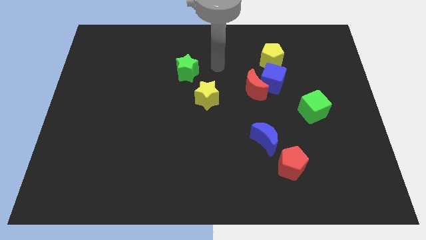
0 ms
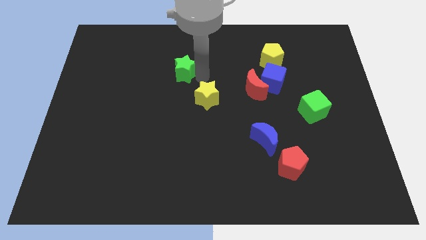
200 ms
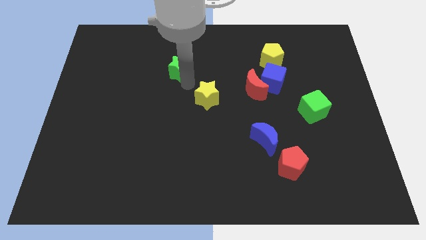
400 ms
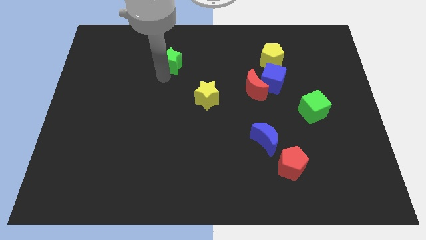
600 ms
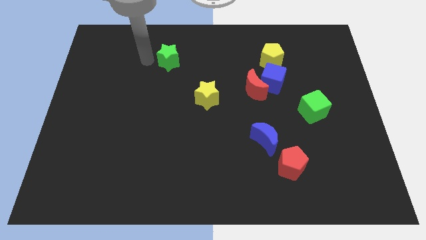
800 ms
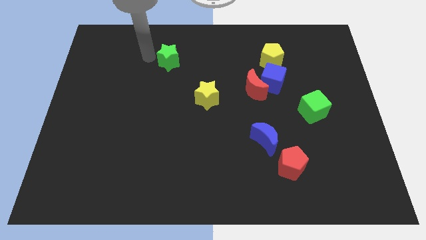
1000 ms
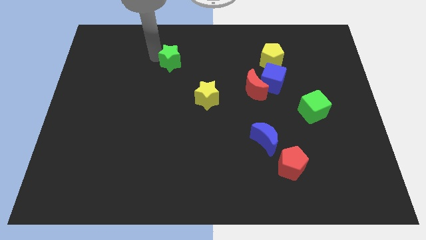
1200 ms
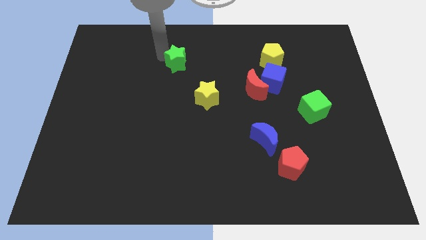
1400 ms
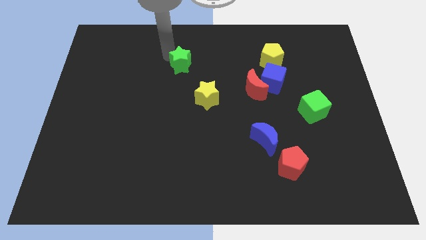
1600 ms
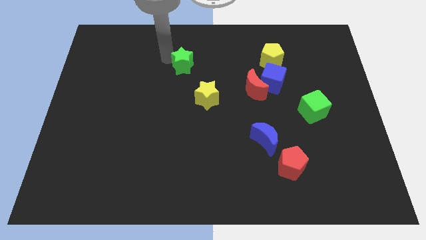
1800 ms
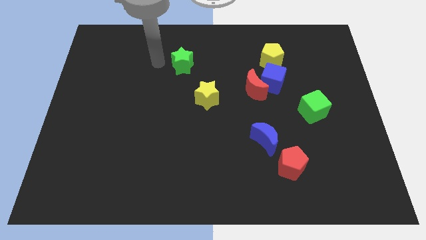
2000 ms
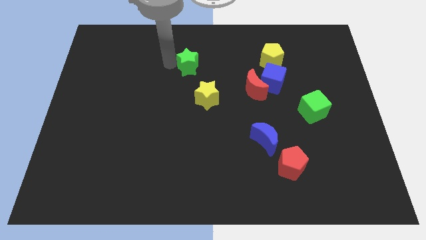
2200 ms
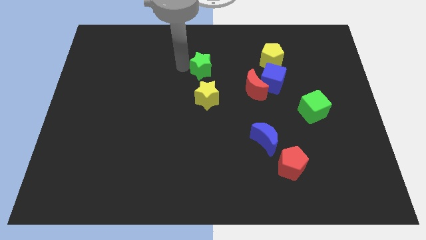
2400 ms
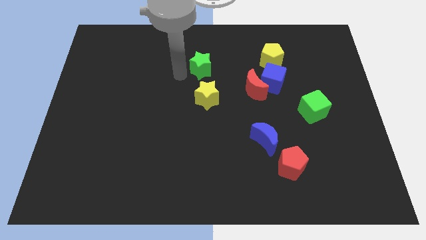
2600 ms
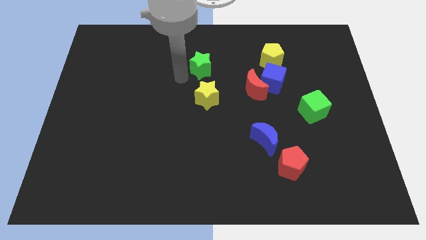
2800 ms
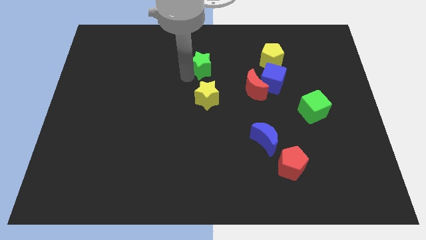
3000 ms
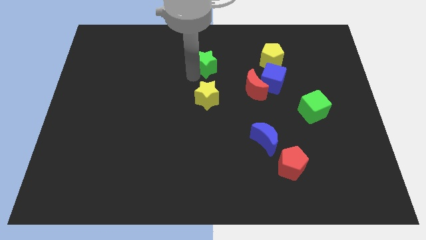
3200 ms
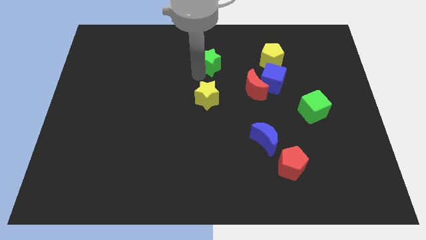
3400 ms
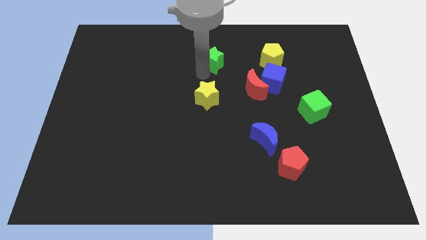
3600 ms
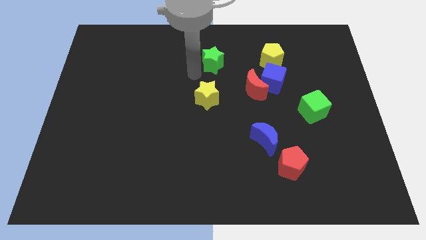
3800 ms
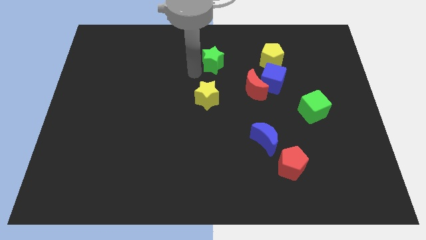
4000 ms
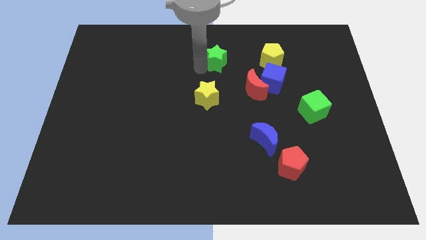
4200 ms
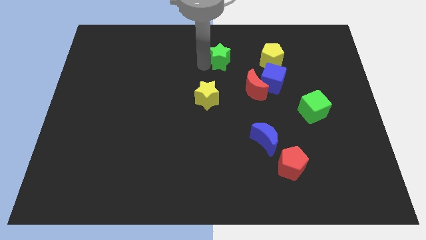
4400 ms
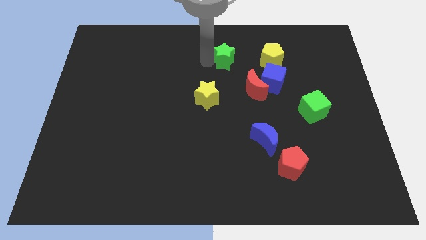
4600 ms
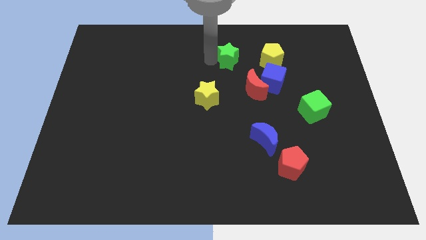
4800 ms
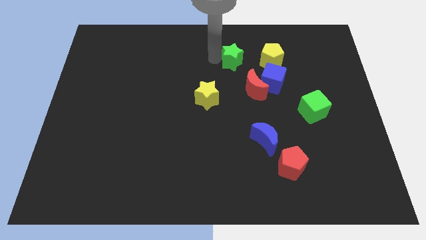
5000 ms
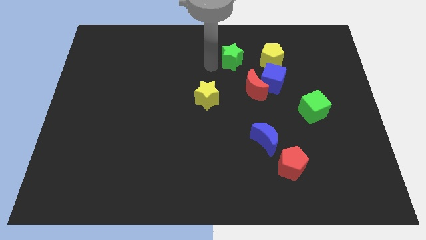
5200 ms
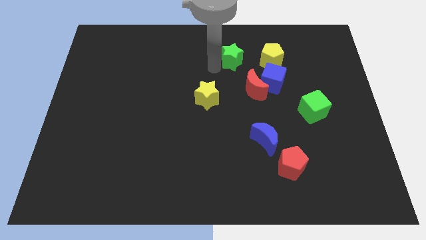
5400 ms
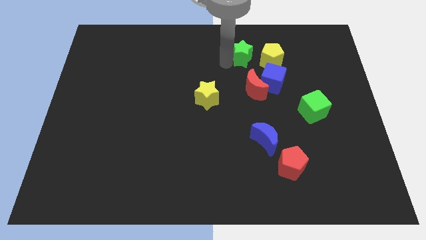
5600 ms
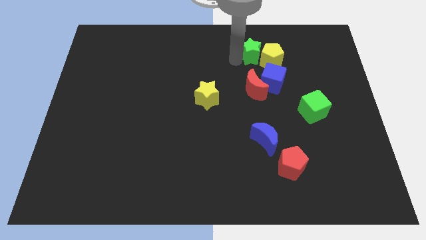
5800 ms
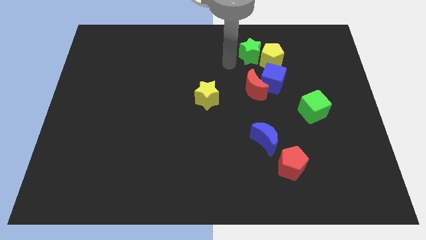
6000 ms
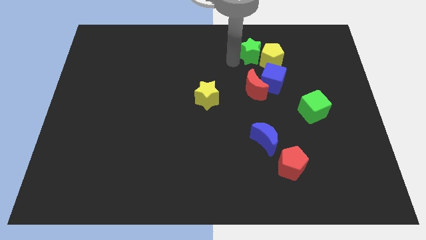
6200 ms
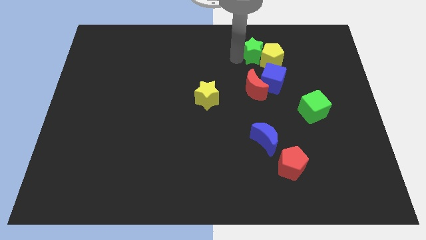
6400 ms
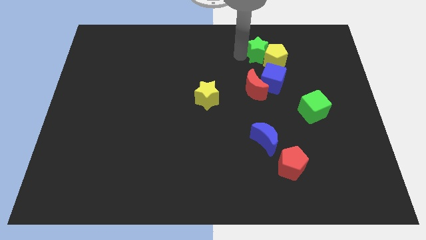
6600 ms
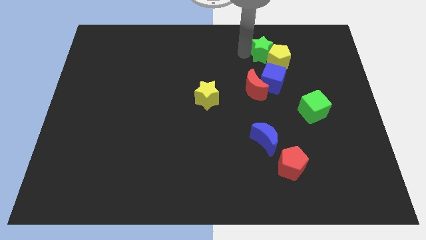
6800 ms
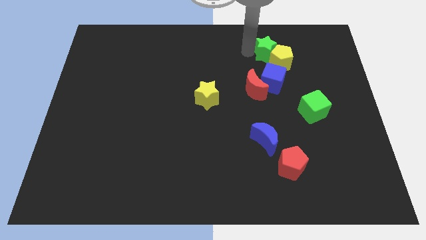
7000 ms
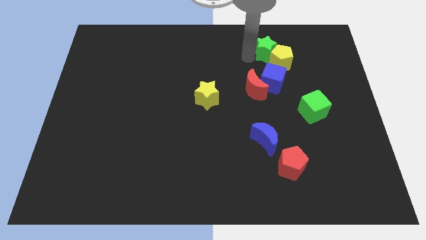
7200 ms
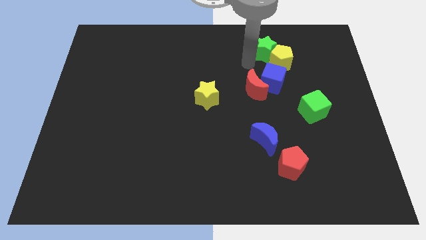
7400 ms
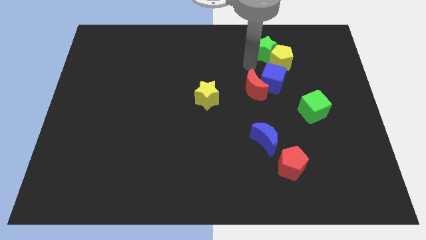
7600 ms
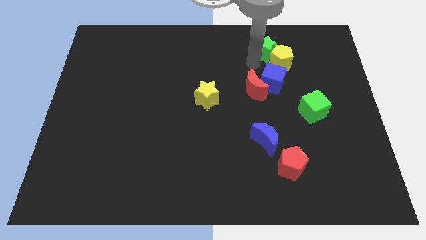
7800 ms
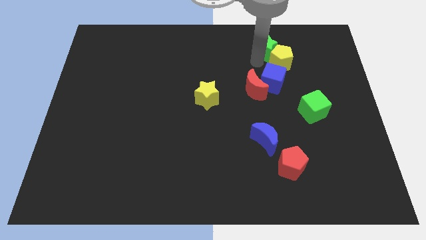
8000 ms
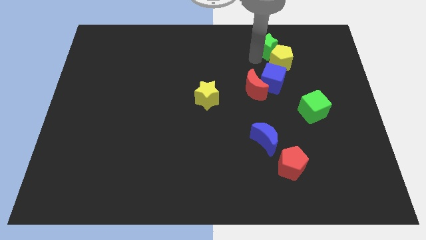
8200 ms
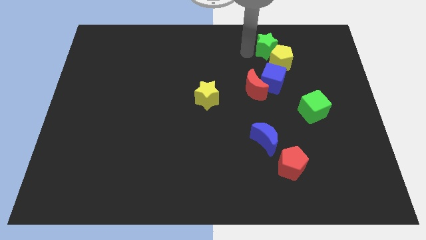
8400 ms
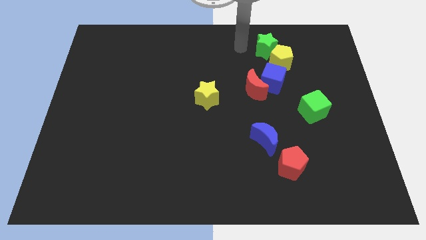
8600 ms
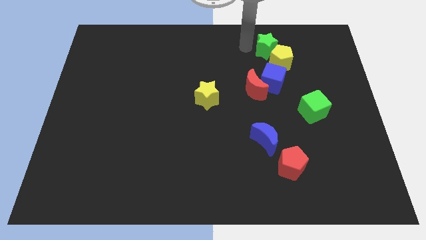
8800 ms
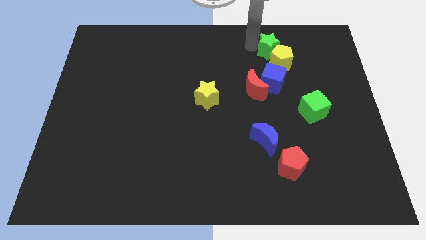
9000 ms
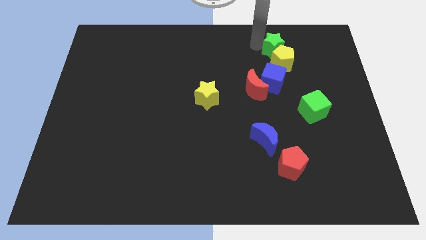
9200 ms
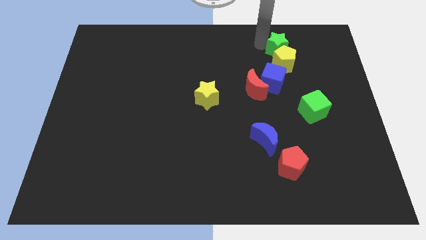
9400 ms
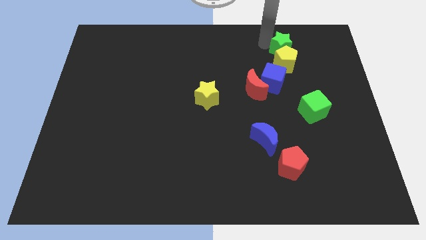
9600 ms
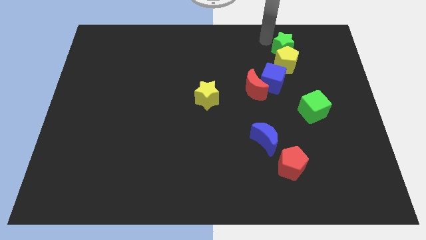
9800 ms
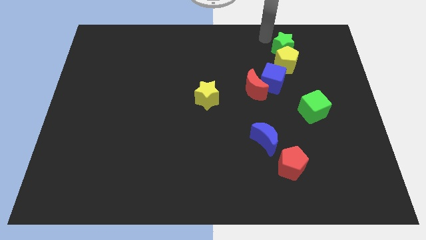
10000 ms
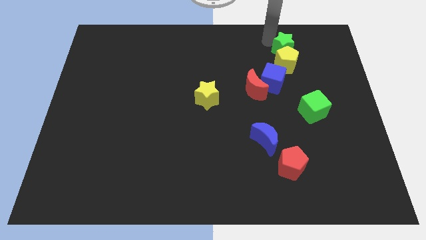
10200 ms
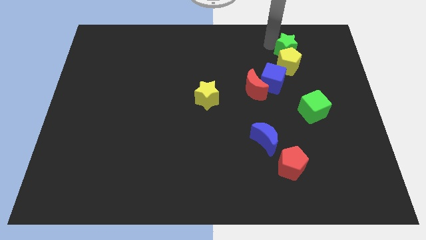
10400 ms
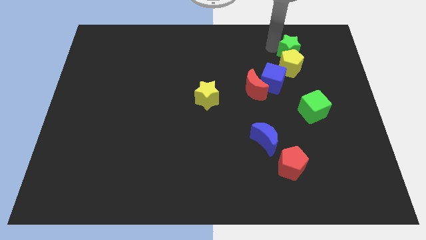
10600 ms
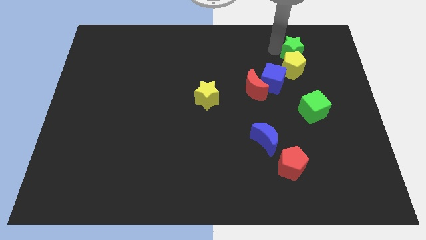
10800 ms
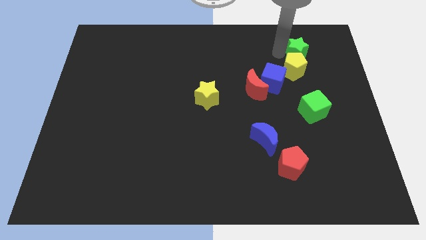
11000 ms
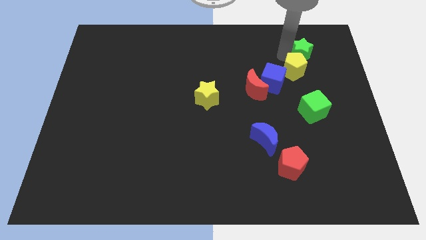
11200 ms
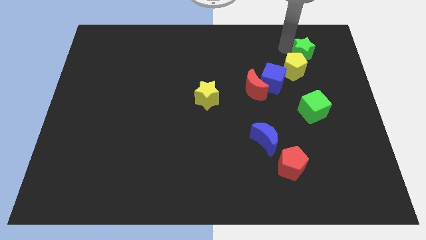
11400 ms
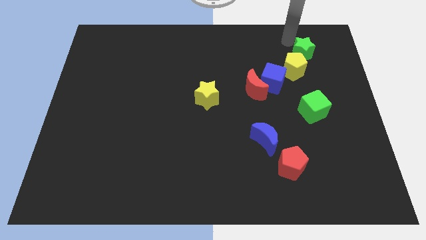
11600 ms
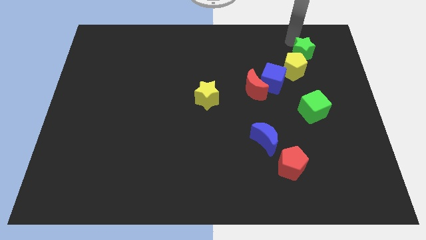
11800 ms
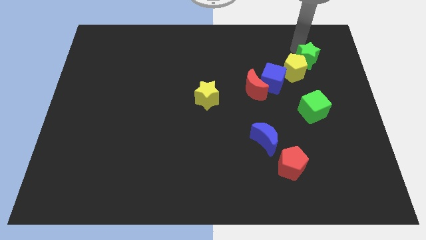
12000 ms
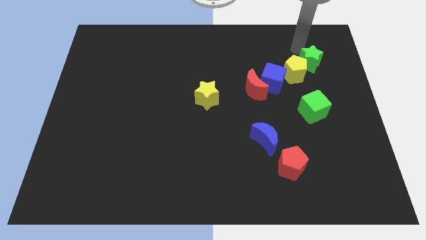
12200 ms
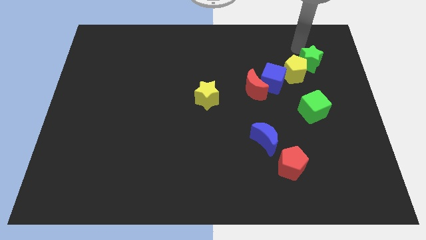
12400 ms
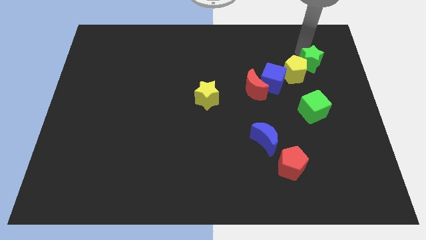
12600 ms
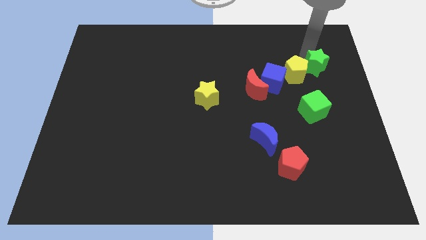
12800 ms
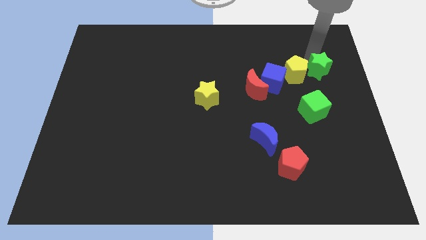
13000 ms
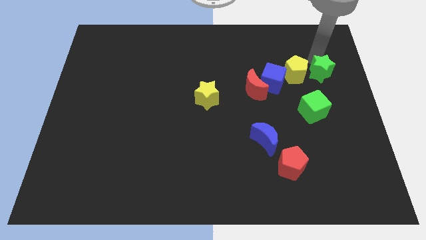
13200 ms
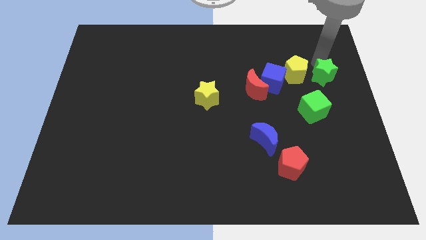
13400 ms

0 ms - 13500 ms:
push the green star to the right side of the board
